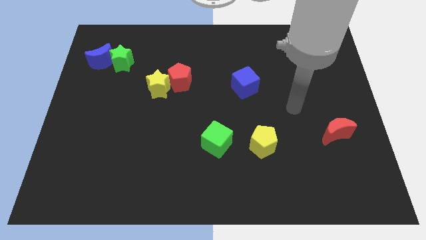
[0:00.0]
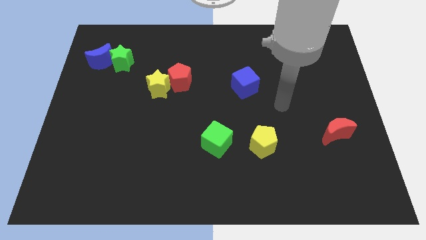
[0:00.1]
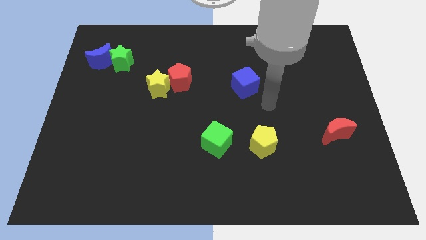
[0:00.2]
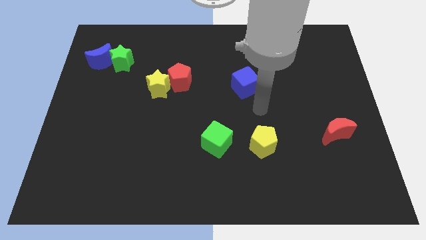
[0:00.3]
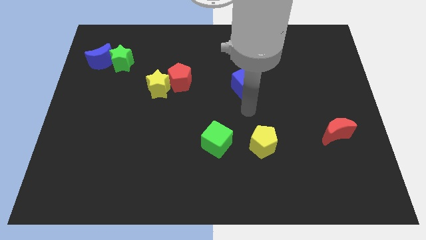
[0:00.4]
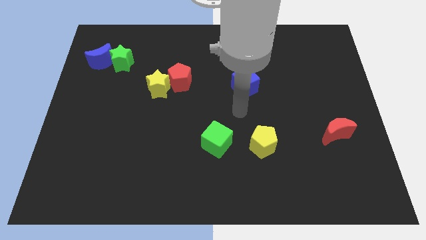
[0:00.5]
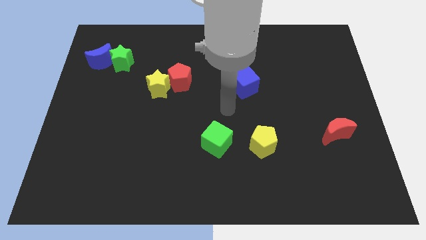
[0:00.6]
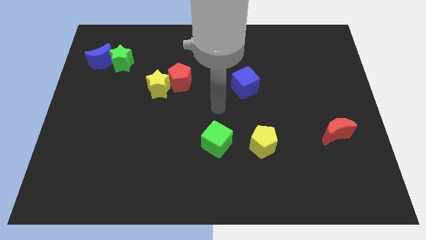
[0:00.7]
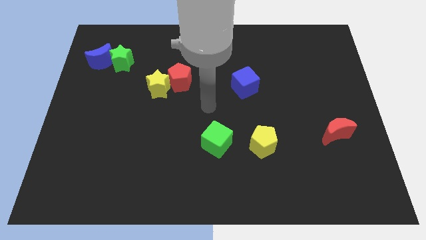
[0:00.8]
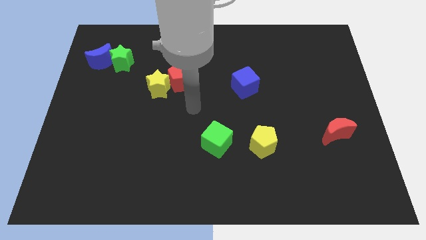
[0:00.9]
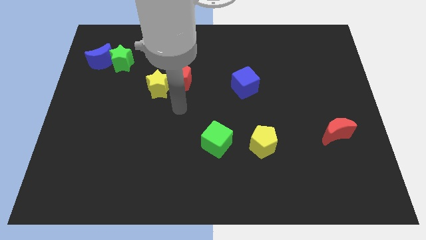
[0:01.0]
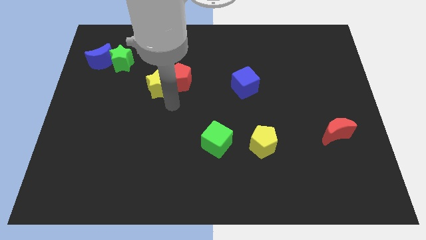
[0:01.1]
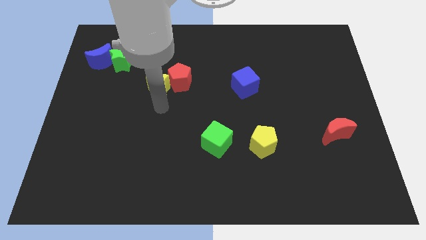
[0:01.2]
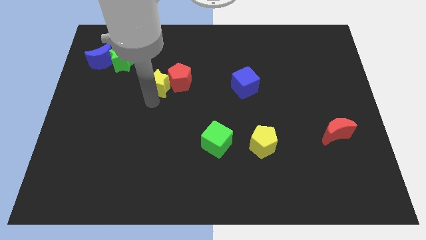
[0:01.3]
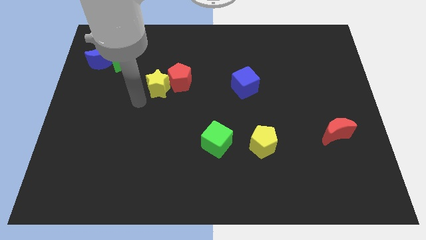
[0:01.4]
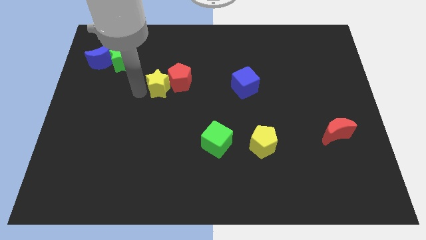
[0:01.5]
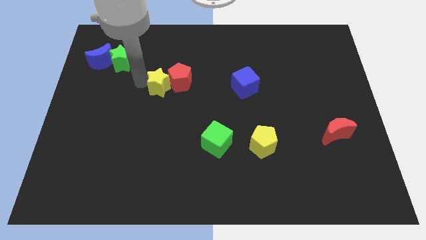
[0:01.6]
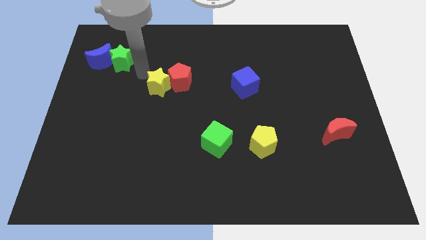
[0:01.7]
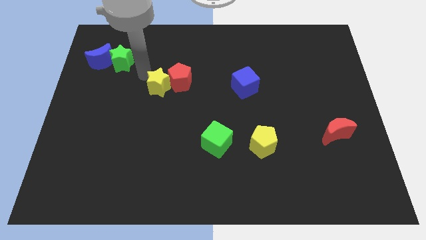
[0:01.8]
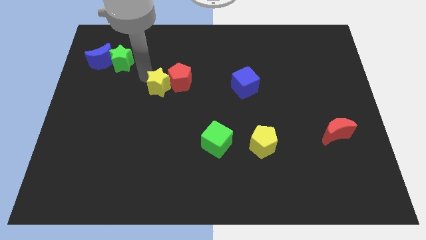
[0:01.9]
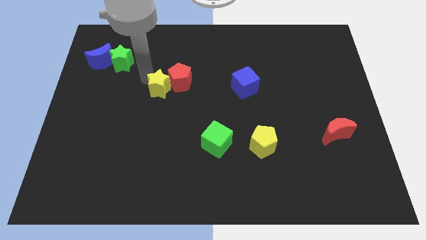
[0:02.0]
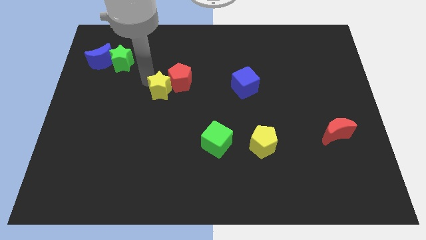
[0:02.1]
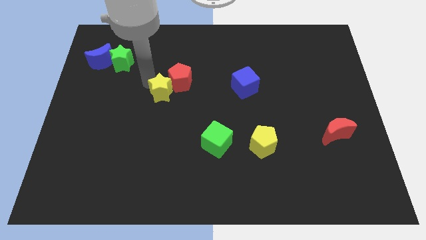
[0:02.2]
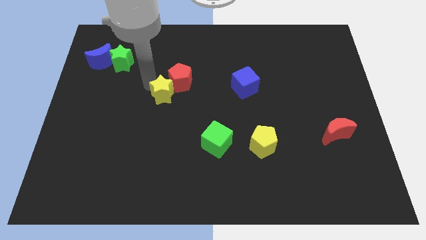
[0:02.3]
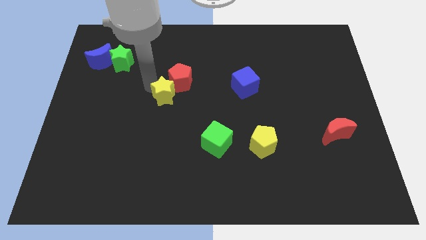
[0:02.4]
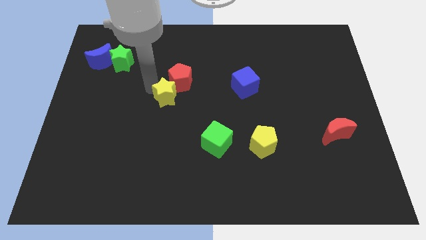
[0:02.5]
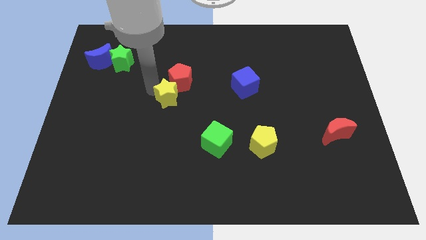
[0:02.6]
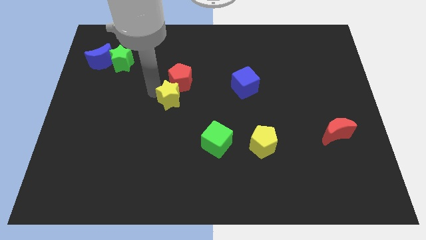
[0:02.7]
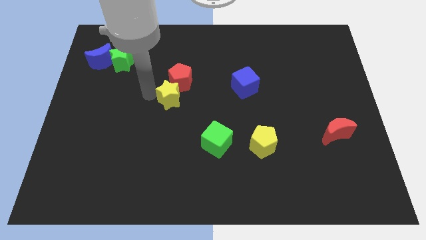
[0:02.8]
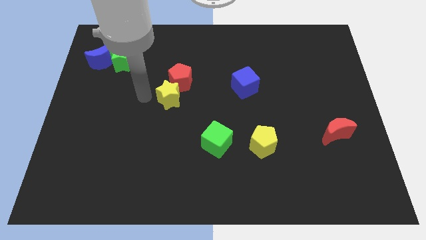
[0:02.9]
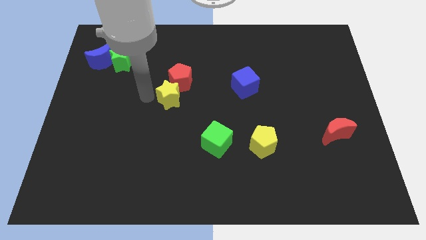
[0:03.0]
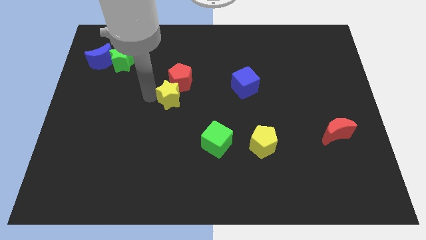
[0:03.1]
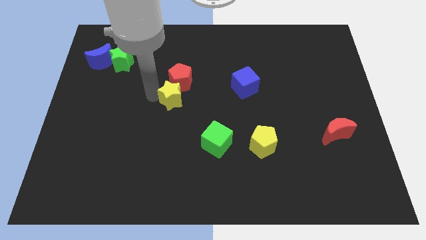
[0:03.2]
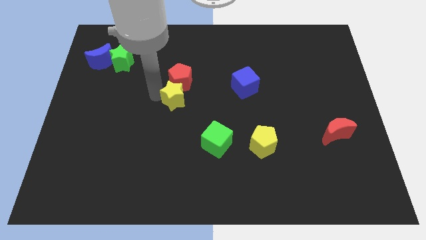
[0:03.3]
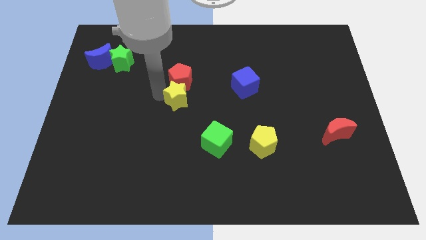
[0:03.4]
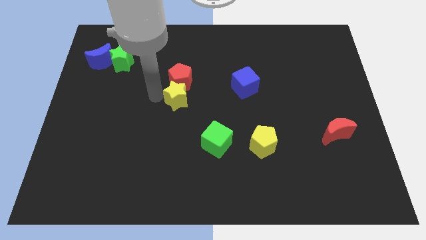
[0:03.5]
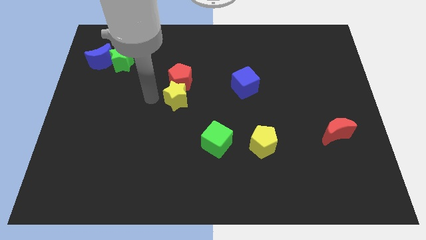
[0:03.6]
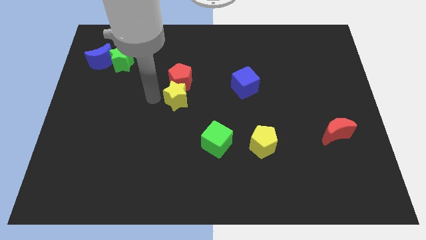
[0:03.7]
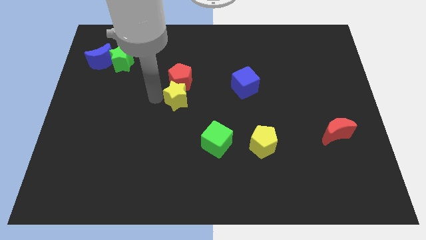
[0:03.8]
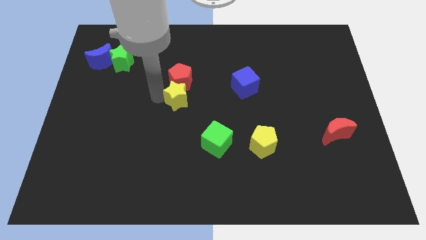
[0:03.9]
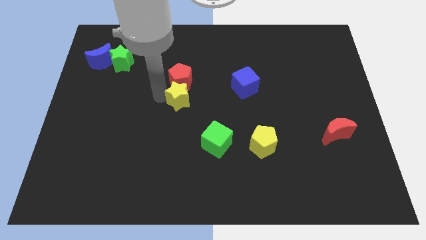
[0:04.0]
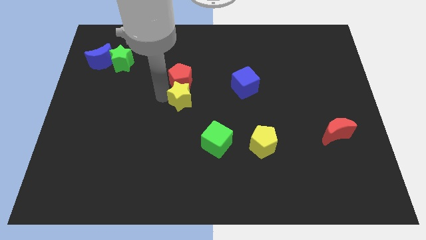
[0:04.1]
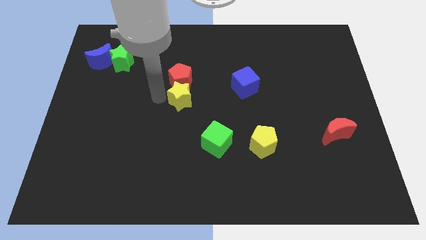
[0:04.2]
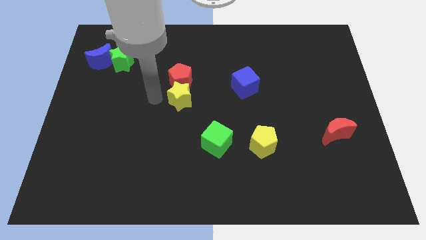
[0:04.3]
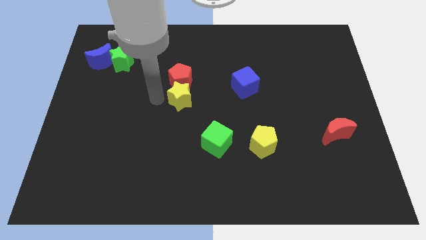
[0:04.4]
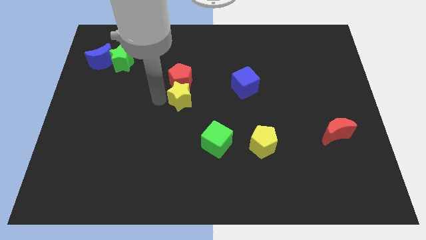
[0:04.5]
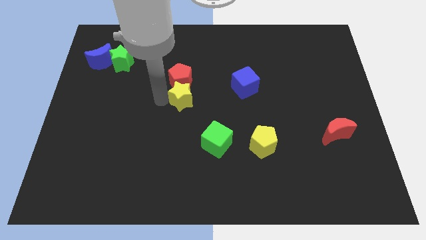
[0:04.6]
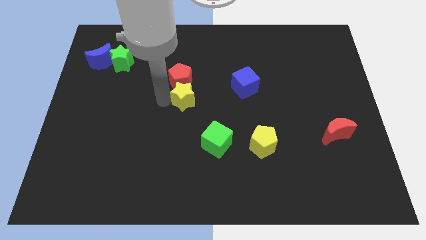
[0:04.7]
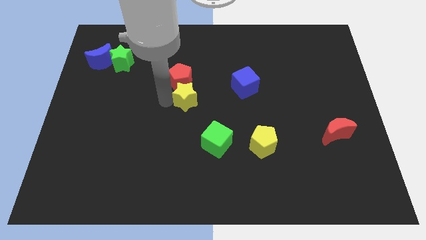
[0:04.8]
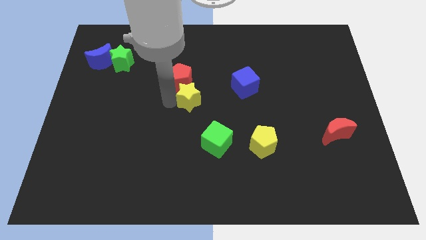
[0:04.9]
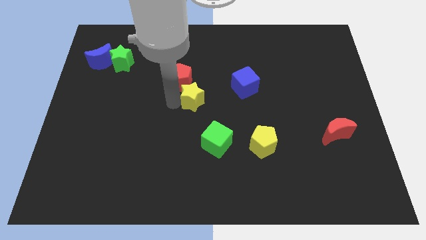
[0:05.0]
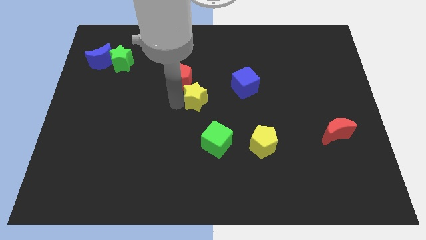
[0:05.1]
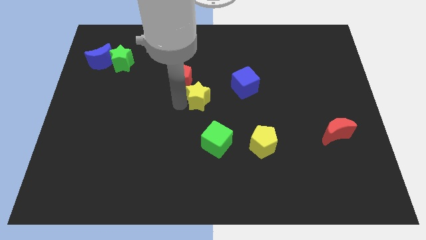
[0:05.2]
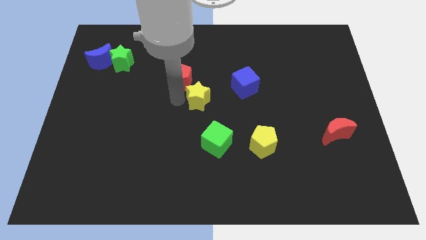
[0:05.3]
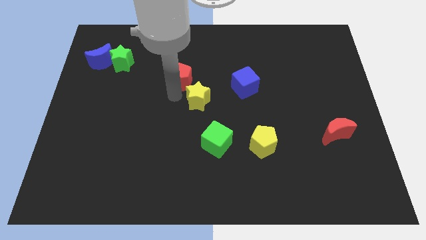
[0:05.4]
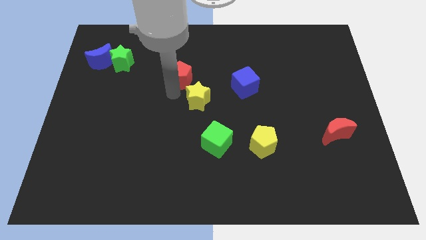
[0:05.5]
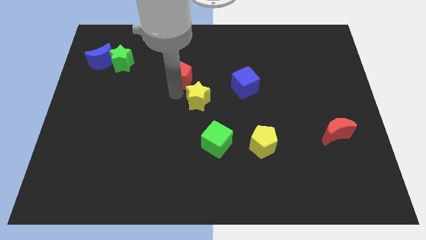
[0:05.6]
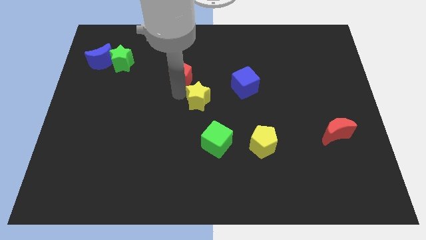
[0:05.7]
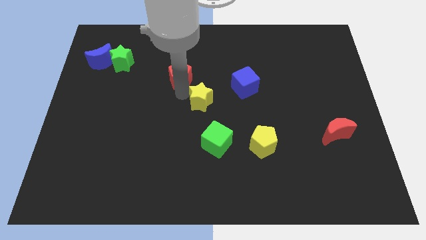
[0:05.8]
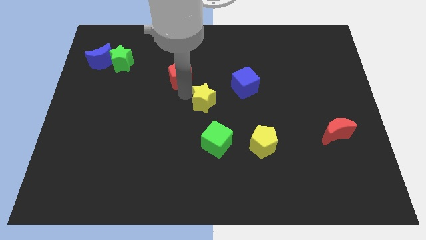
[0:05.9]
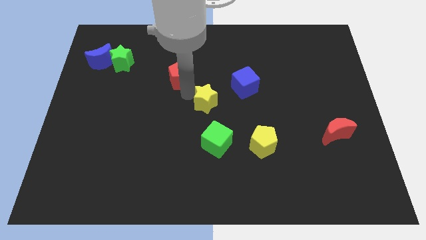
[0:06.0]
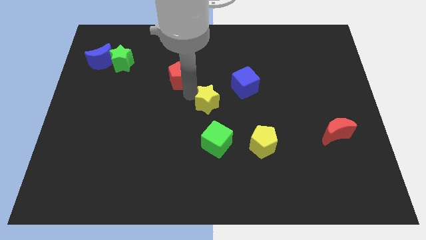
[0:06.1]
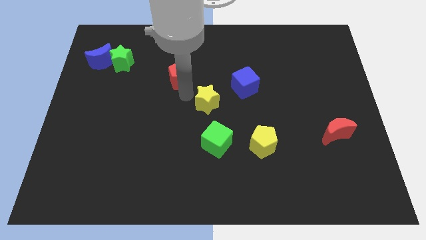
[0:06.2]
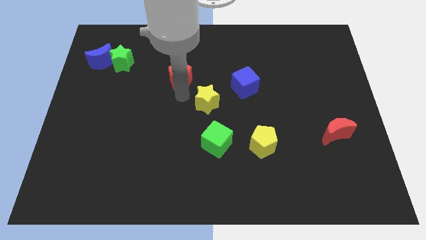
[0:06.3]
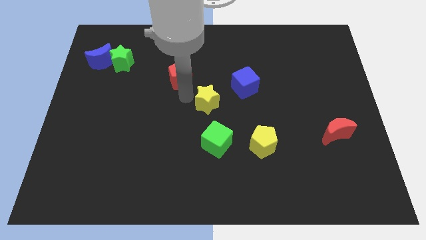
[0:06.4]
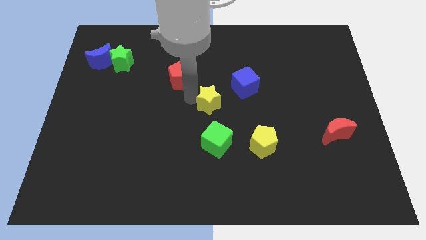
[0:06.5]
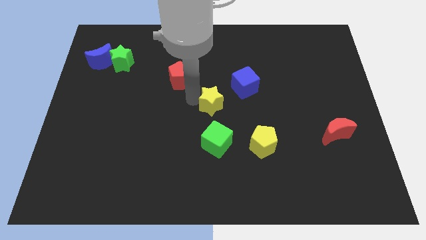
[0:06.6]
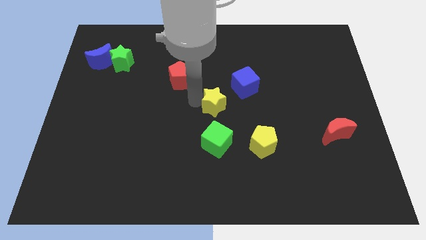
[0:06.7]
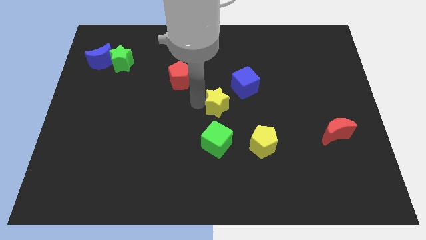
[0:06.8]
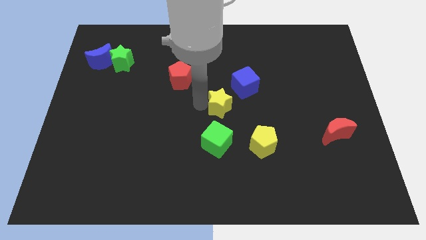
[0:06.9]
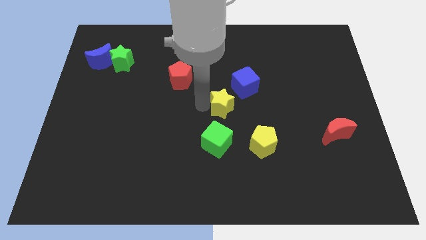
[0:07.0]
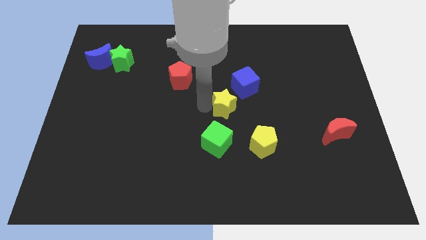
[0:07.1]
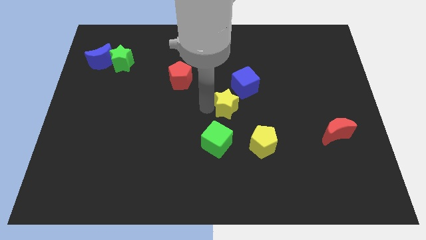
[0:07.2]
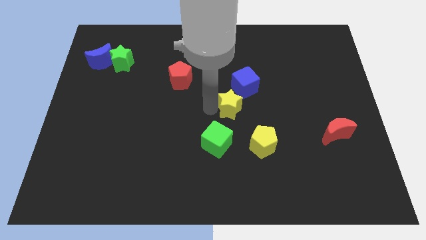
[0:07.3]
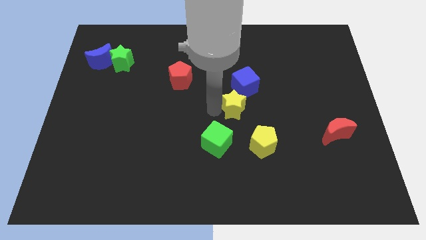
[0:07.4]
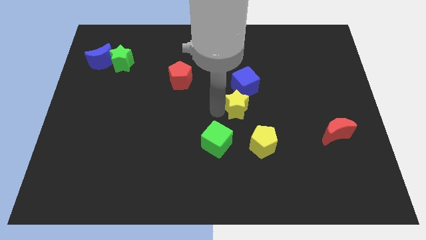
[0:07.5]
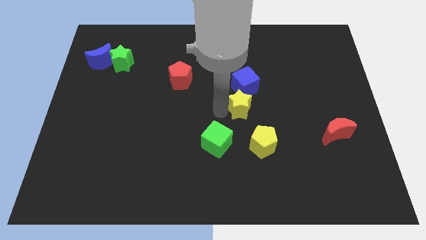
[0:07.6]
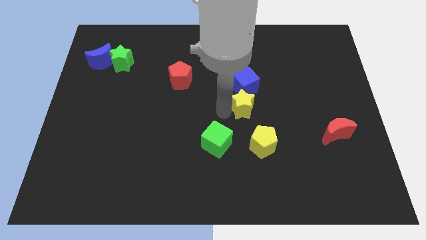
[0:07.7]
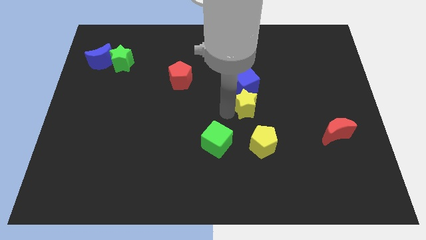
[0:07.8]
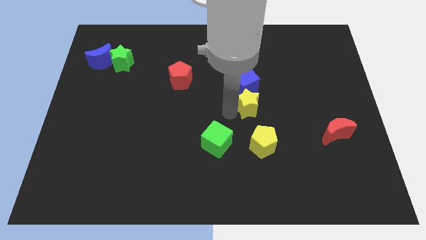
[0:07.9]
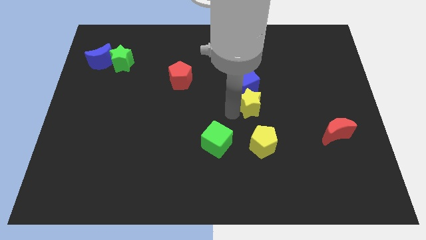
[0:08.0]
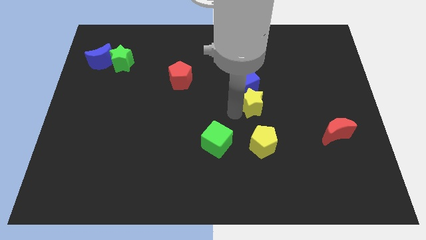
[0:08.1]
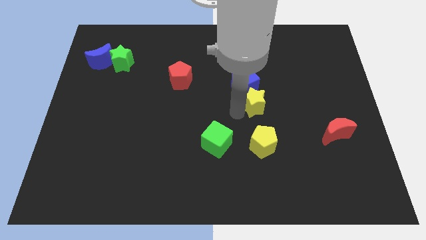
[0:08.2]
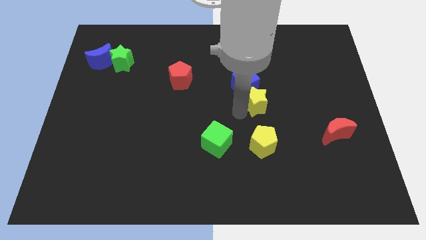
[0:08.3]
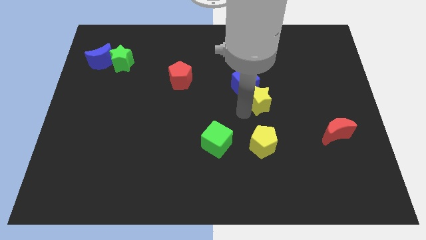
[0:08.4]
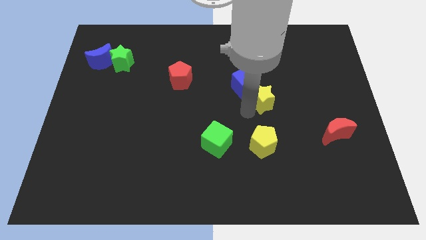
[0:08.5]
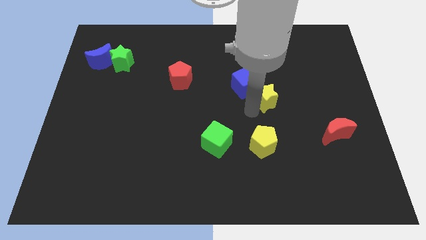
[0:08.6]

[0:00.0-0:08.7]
push the yellow star to the right side of the blue cube
